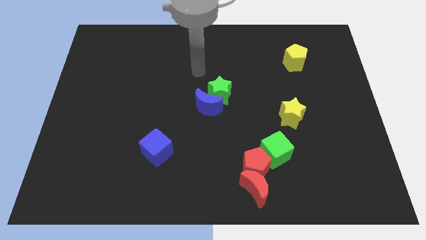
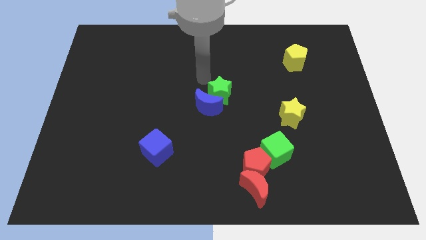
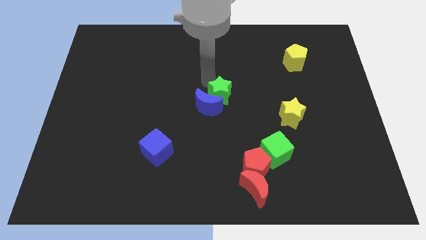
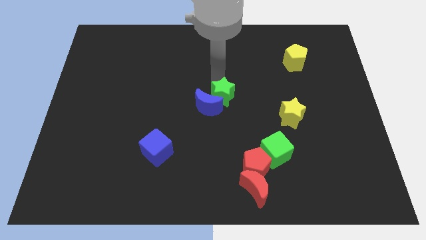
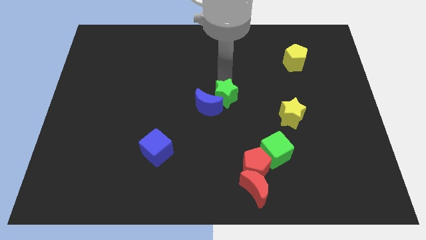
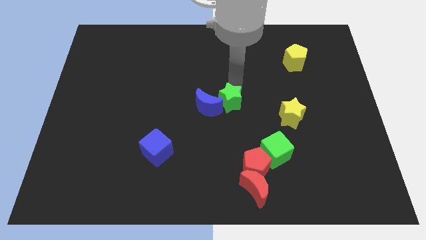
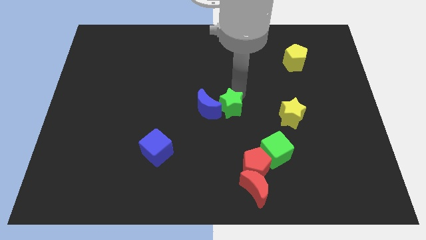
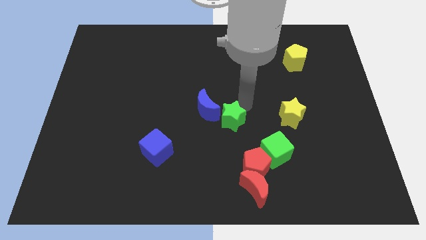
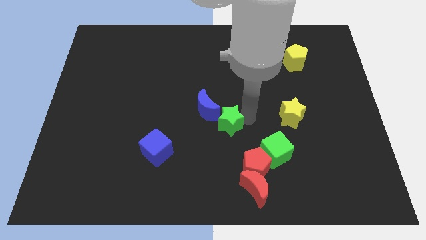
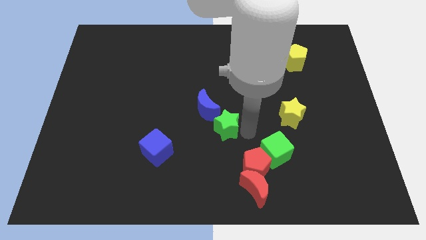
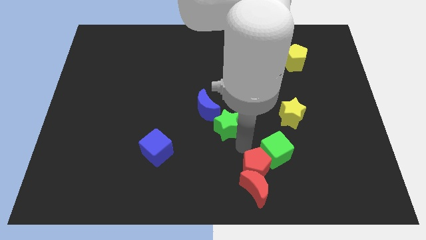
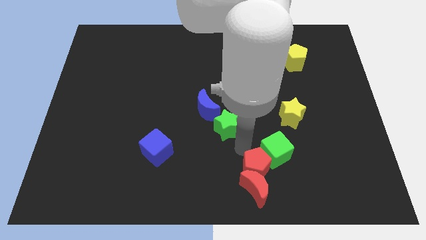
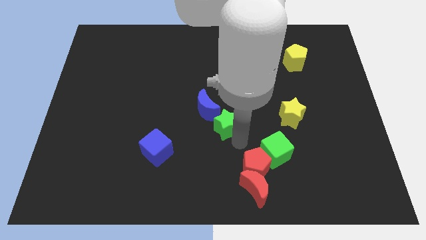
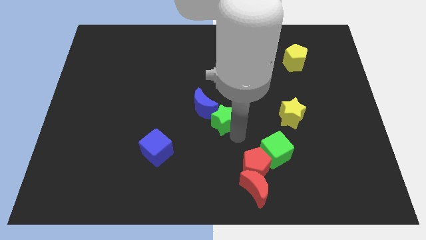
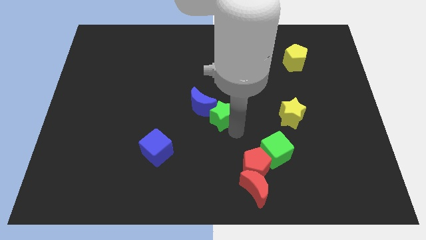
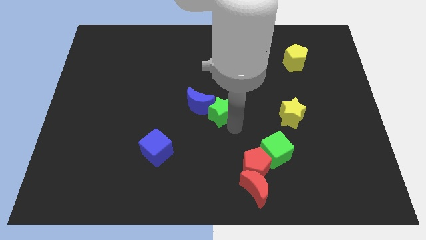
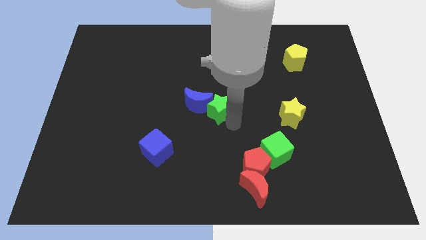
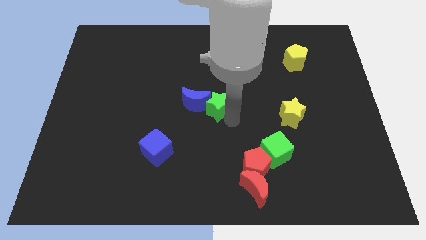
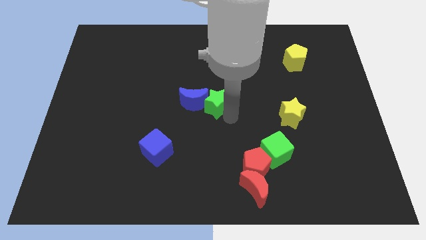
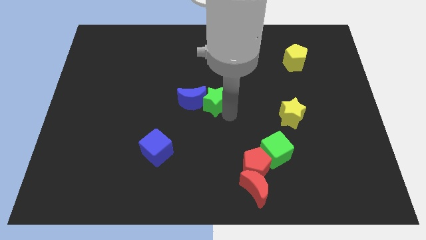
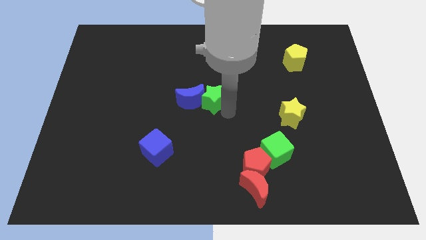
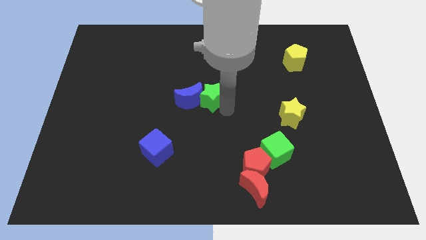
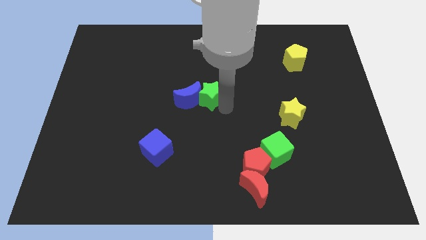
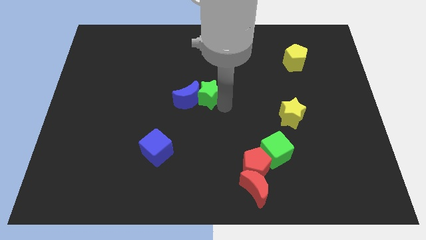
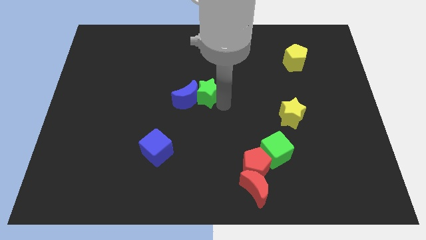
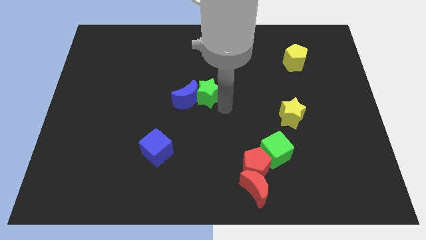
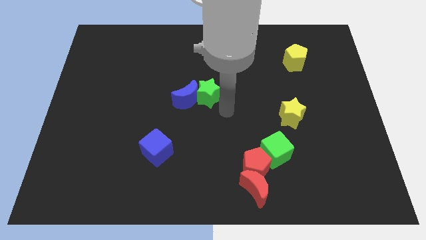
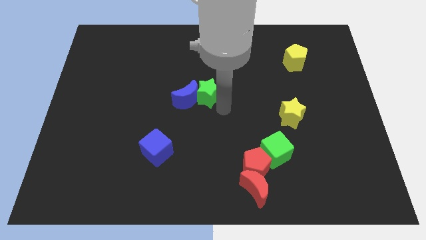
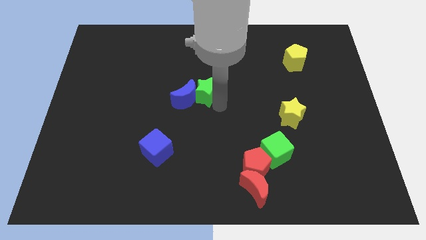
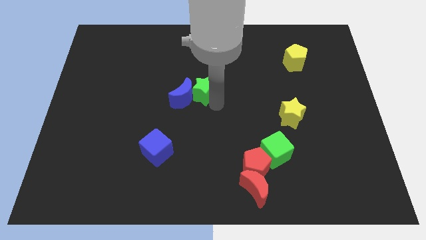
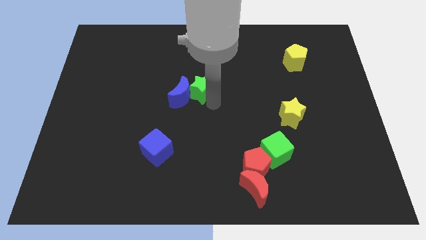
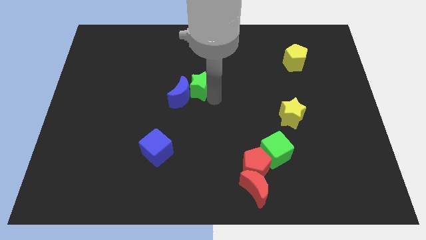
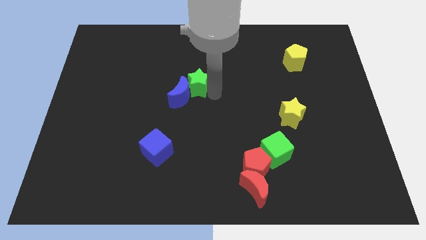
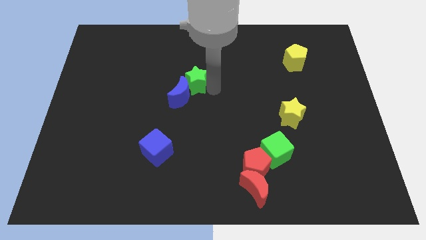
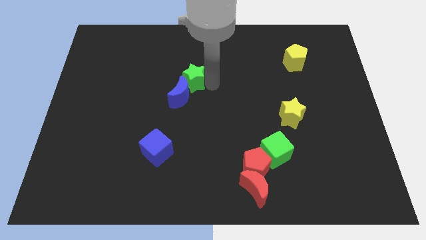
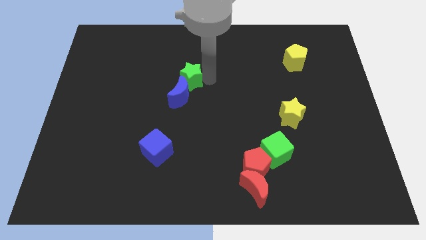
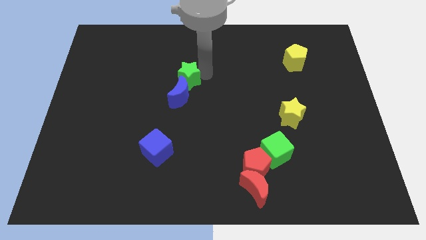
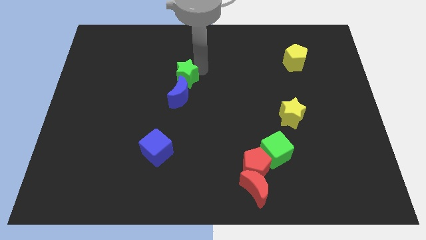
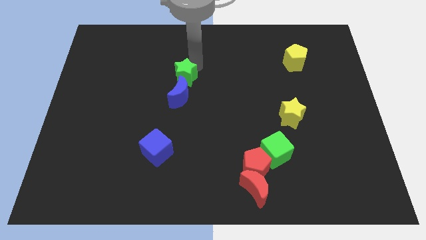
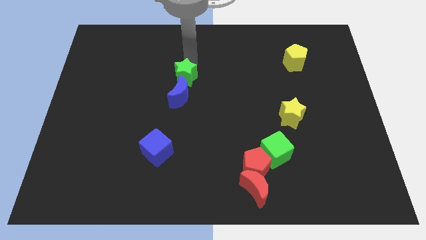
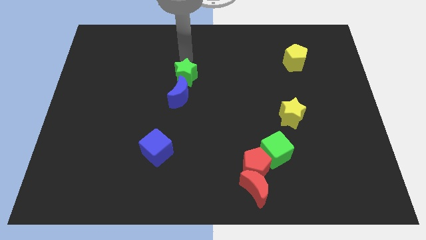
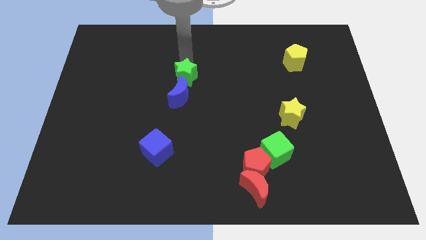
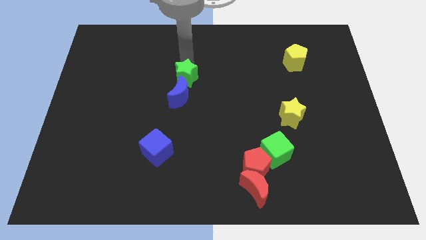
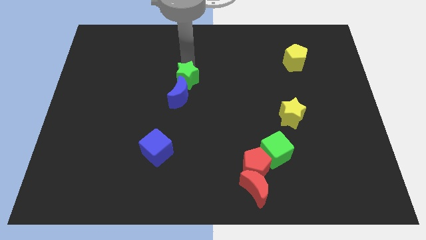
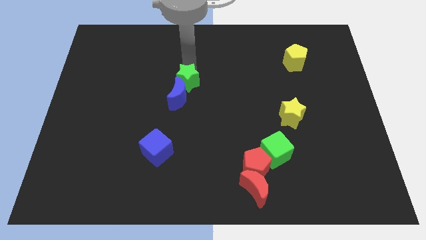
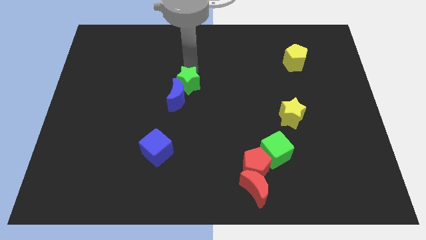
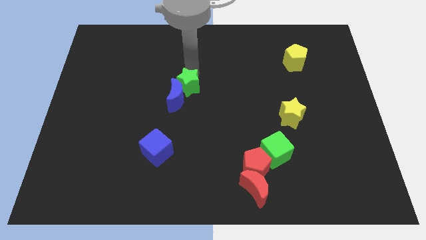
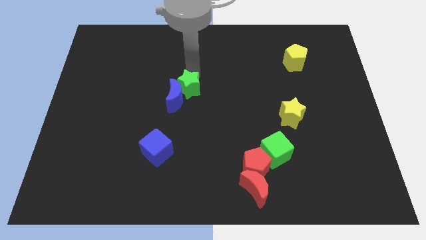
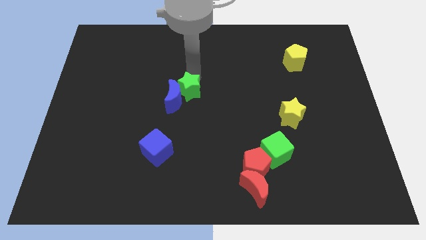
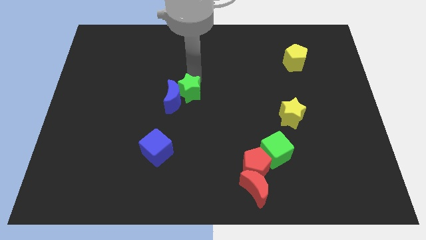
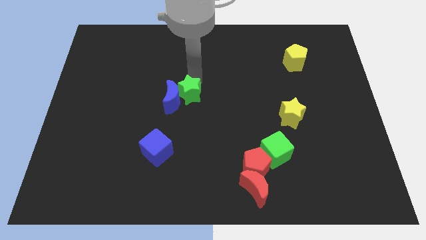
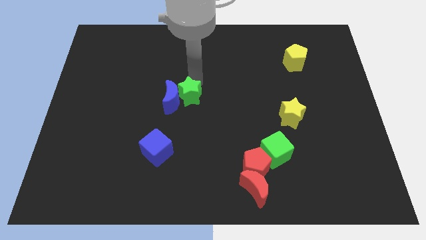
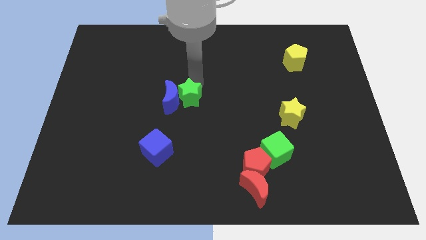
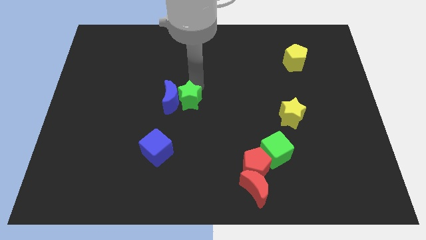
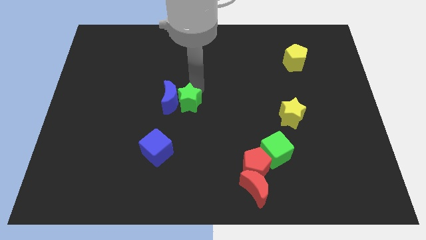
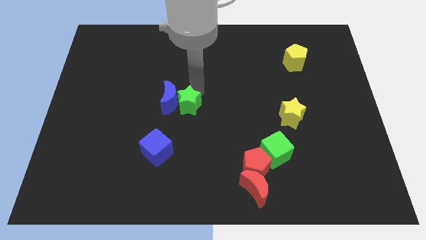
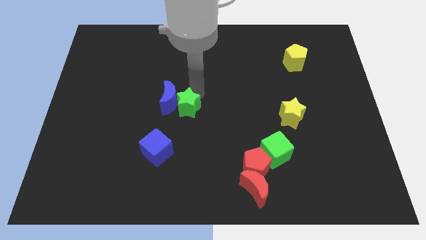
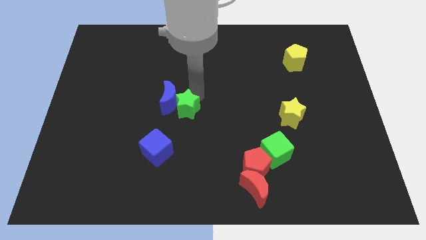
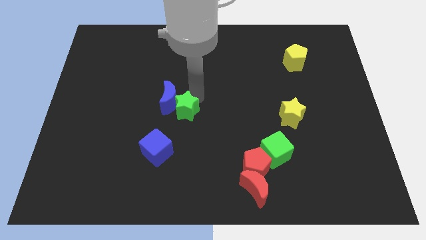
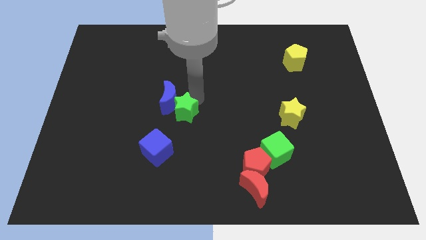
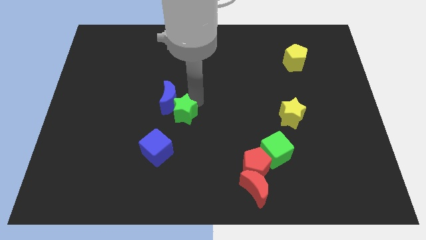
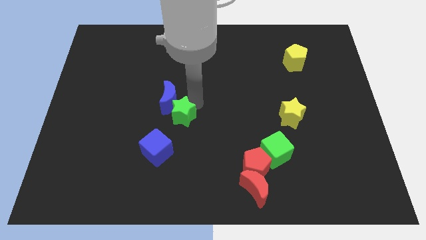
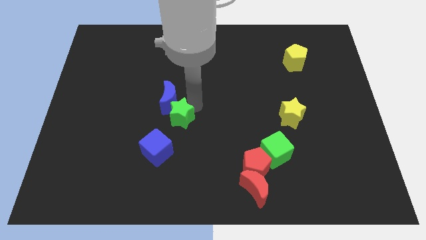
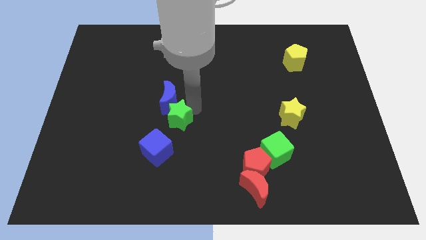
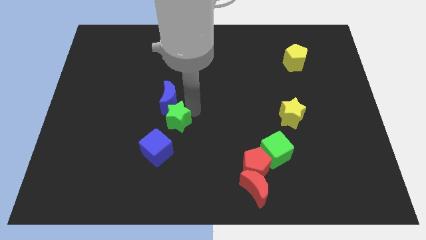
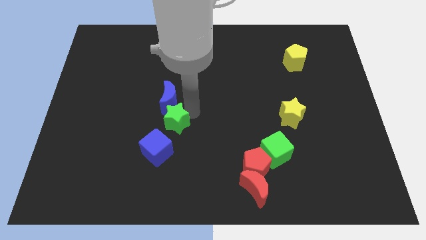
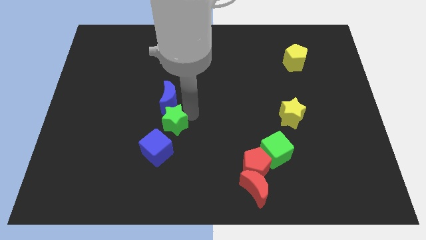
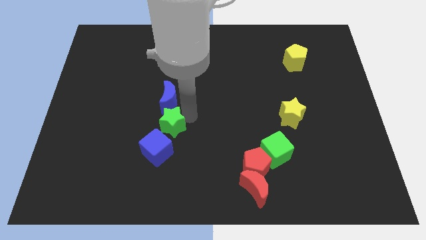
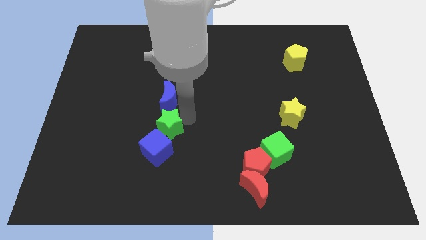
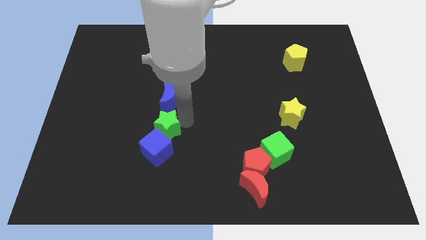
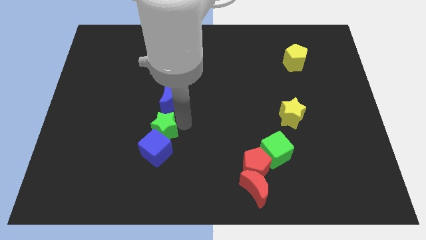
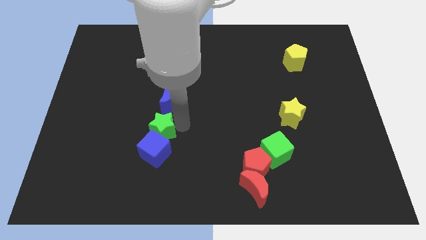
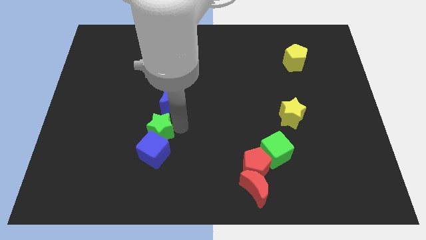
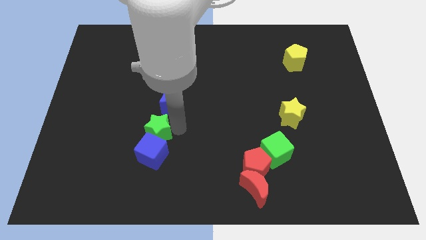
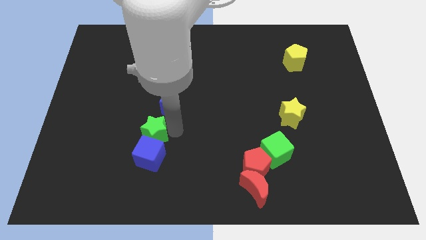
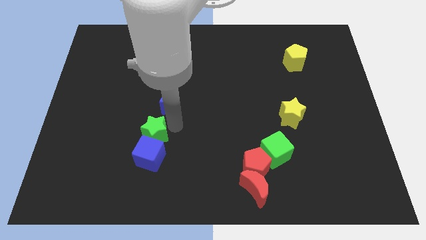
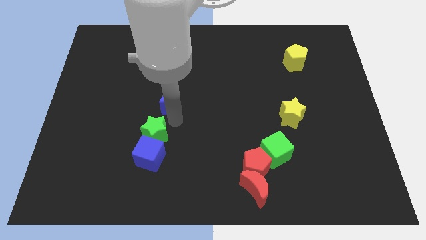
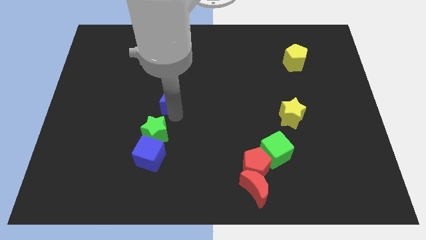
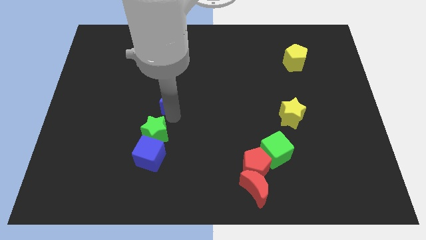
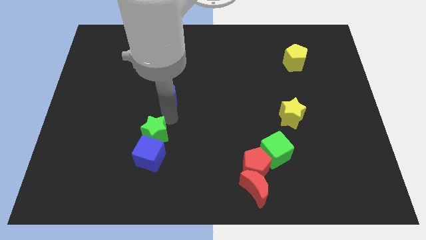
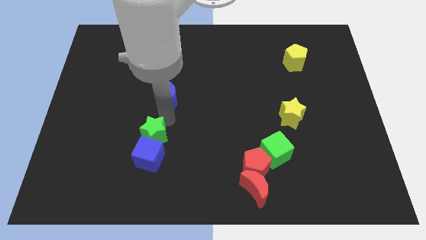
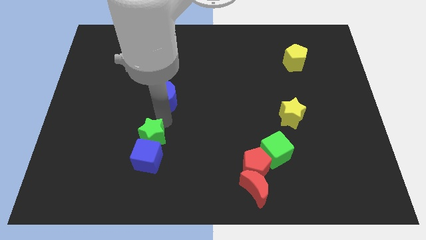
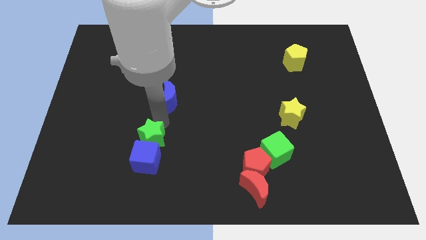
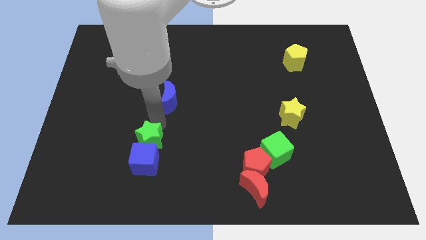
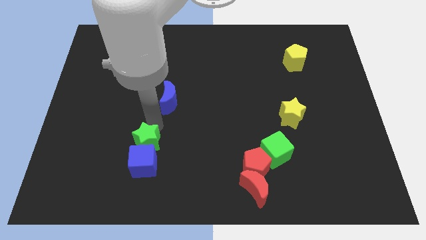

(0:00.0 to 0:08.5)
move the green star down and to the left diagonally

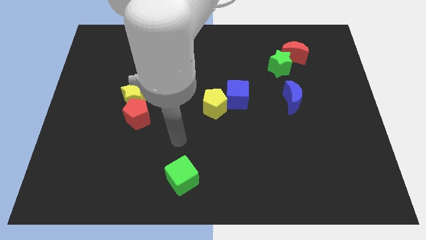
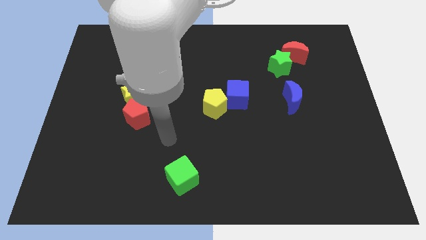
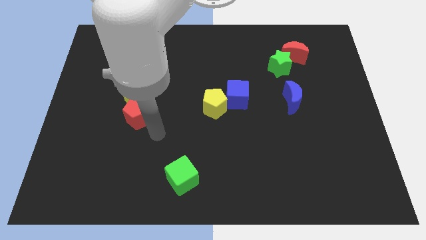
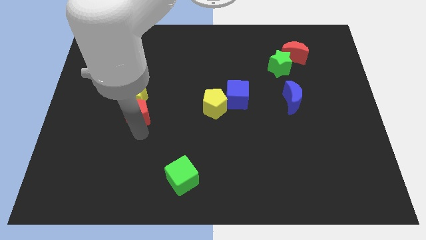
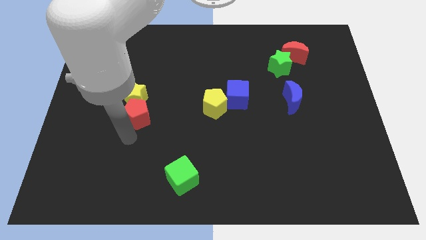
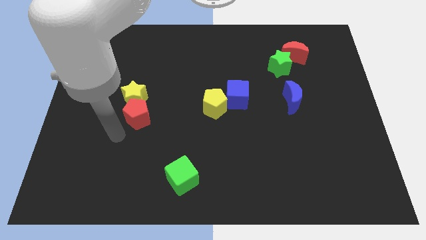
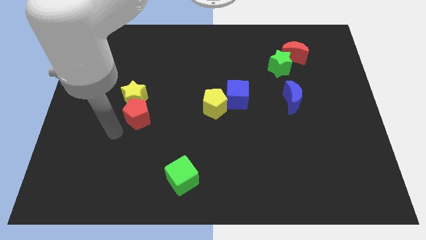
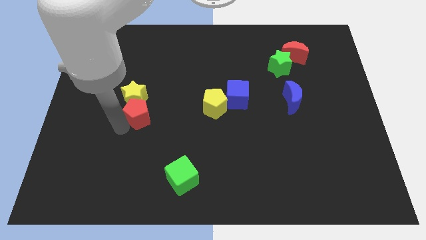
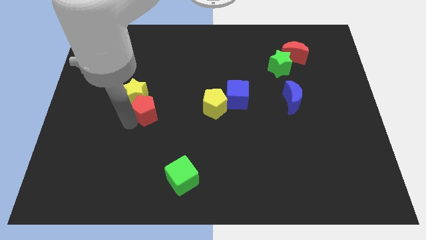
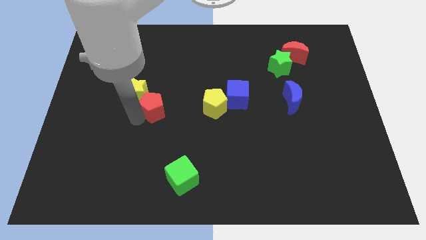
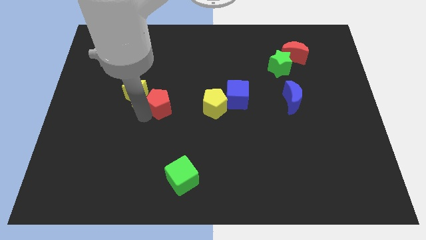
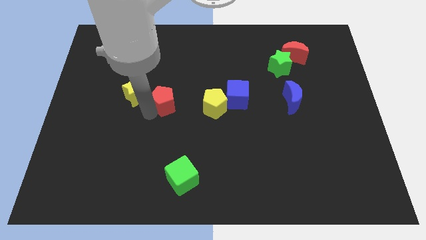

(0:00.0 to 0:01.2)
slightly slide the red pentagon diagonally upwards and right
